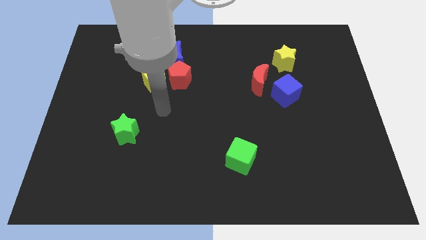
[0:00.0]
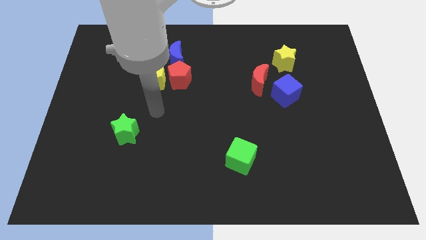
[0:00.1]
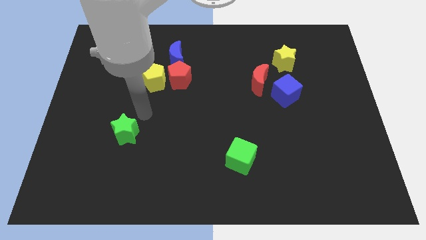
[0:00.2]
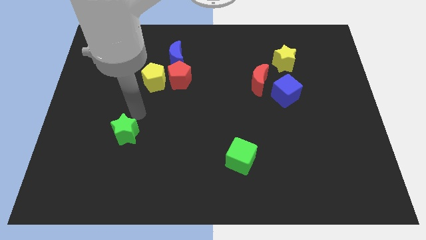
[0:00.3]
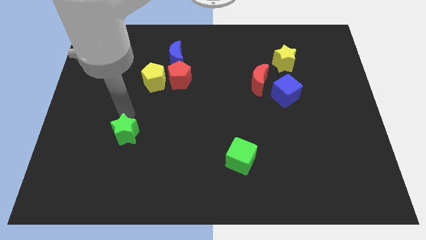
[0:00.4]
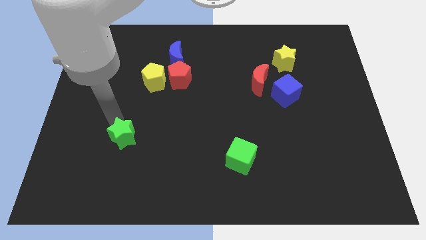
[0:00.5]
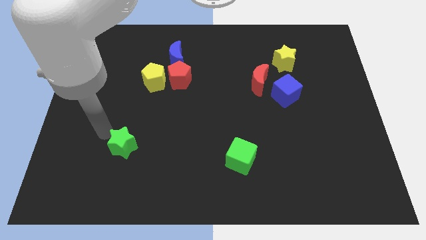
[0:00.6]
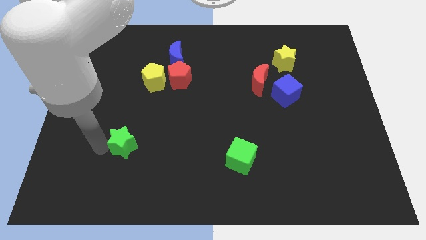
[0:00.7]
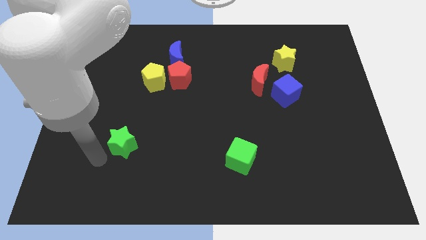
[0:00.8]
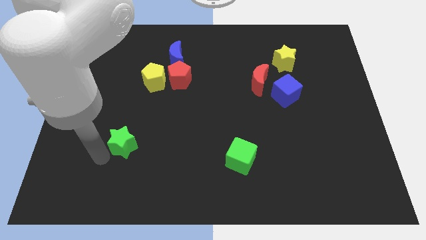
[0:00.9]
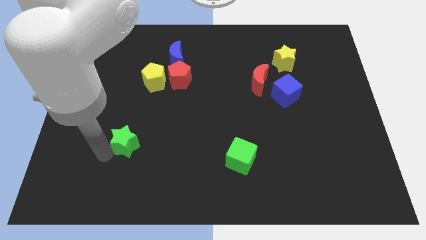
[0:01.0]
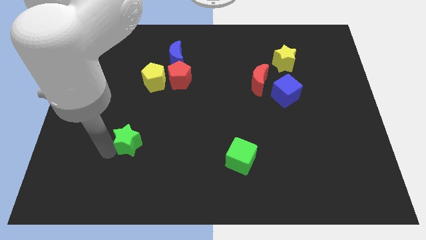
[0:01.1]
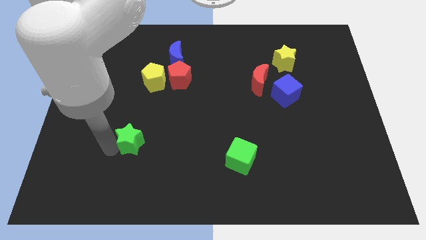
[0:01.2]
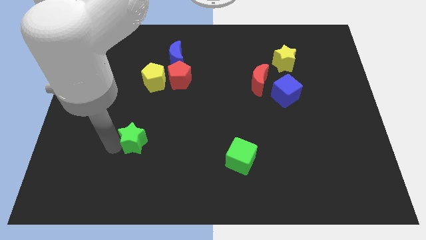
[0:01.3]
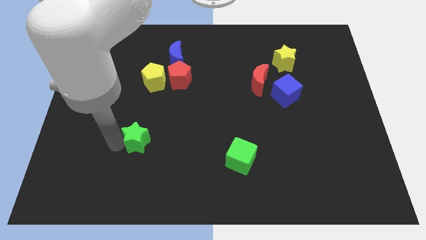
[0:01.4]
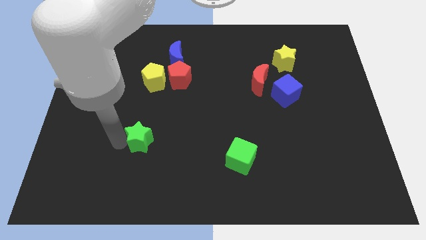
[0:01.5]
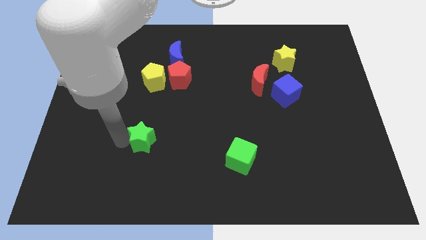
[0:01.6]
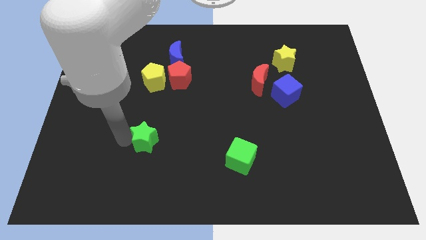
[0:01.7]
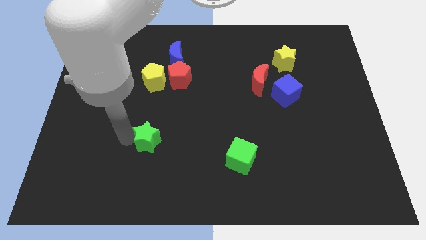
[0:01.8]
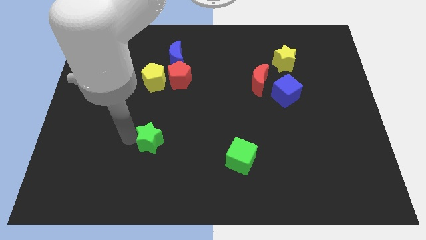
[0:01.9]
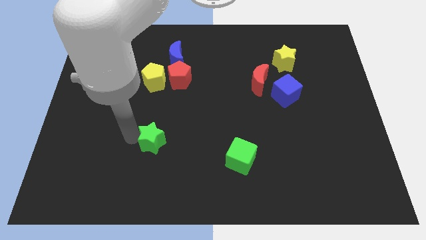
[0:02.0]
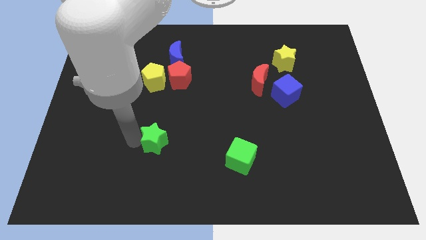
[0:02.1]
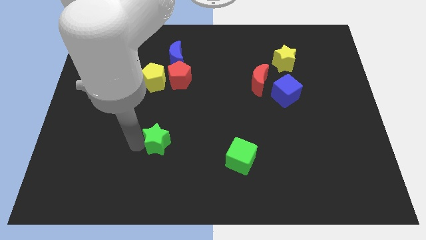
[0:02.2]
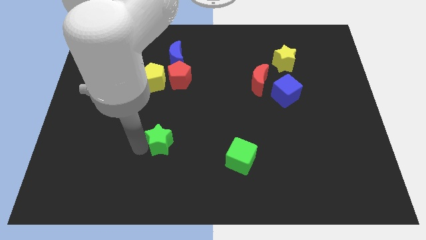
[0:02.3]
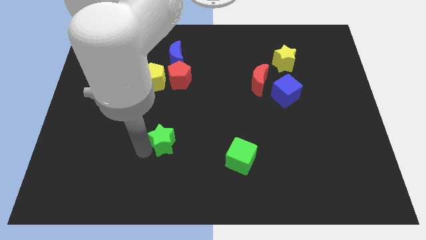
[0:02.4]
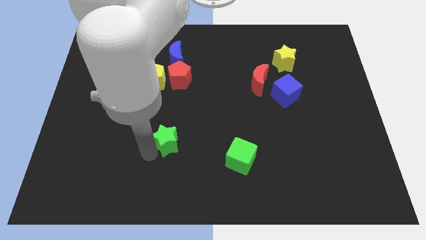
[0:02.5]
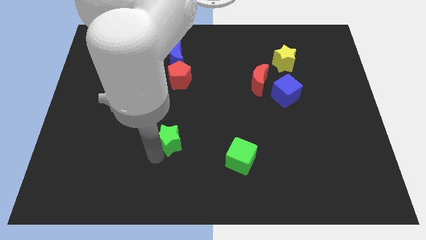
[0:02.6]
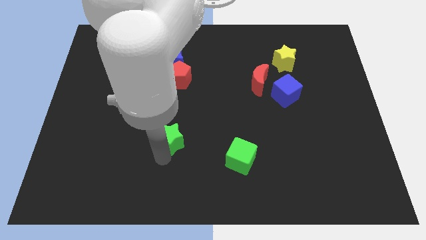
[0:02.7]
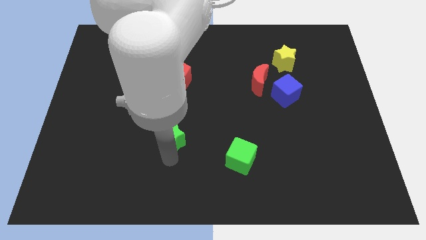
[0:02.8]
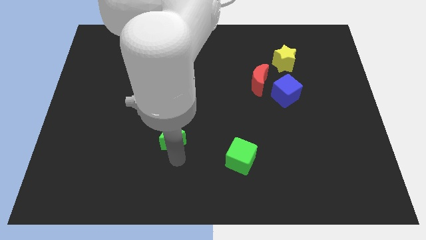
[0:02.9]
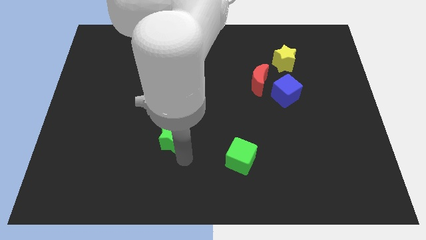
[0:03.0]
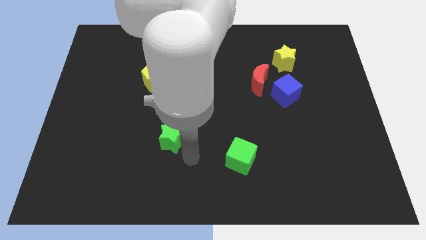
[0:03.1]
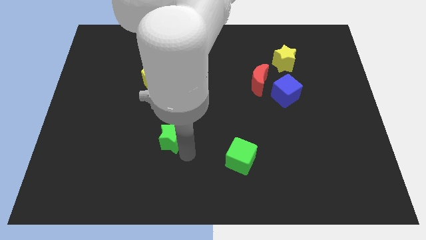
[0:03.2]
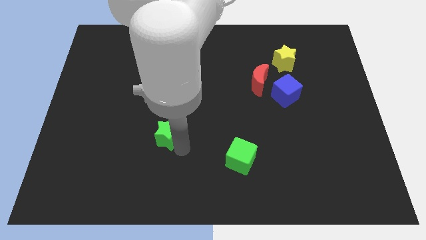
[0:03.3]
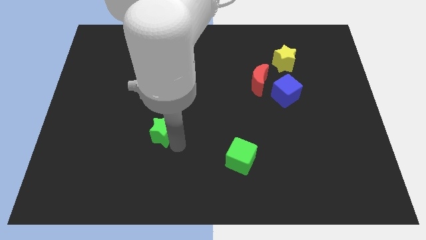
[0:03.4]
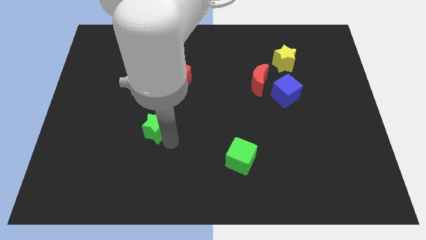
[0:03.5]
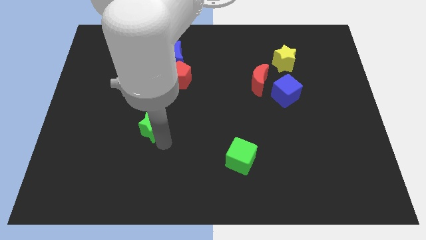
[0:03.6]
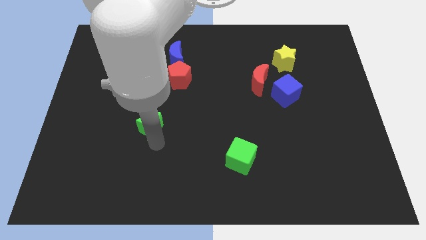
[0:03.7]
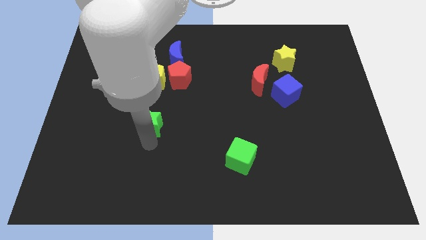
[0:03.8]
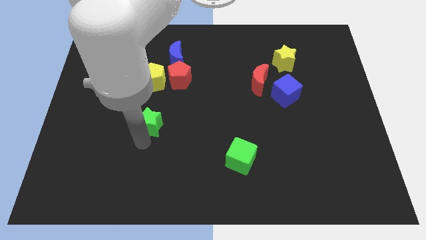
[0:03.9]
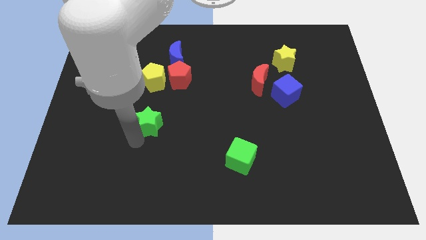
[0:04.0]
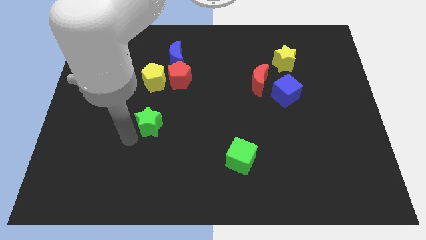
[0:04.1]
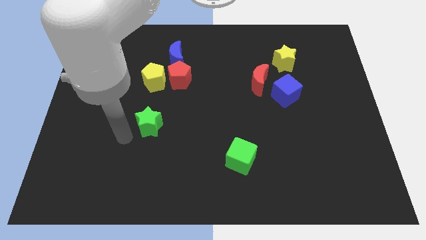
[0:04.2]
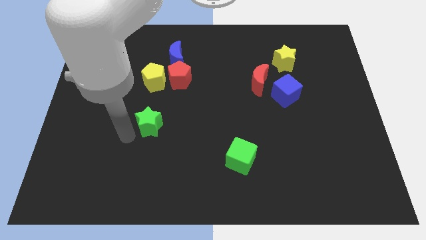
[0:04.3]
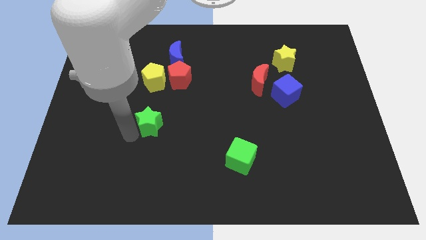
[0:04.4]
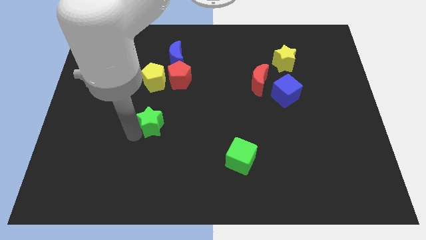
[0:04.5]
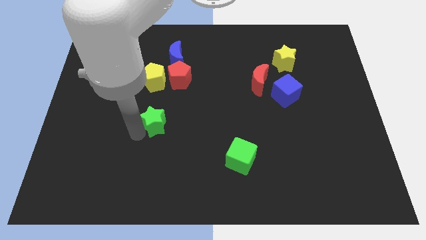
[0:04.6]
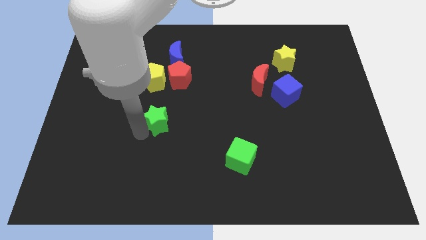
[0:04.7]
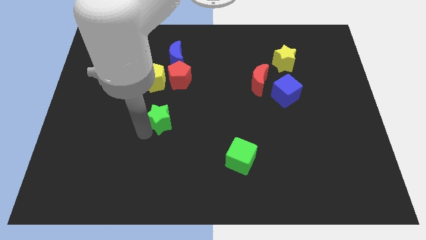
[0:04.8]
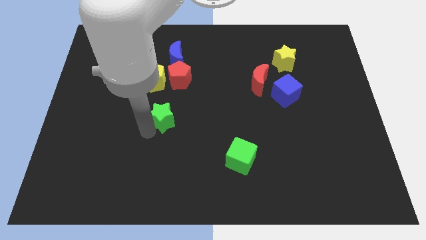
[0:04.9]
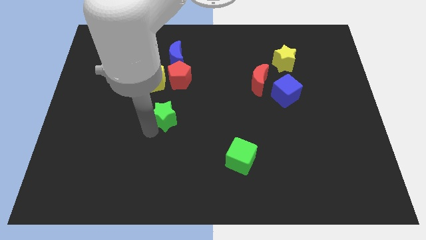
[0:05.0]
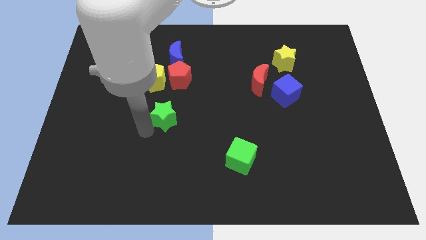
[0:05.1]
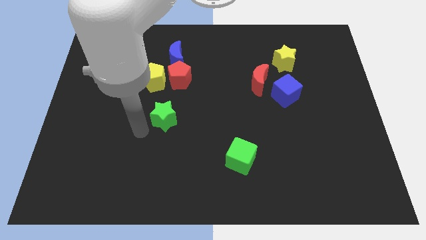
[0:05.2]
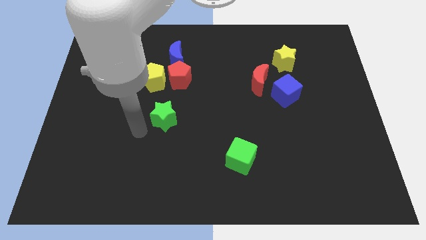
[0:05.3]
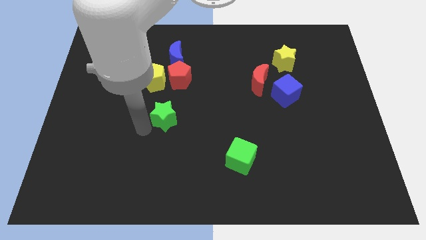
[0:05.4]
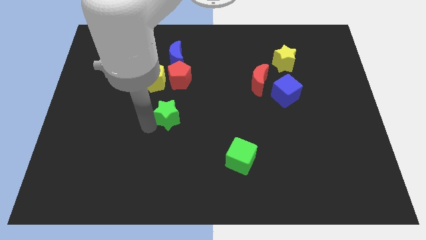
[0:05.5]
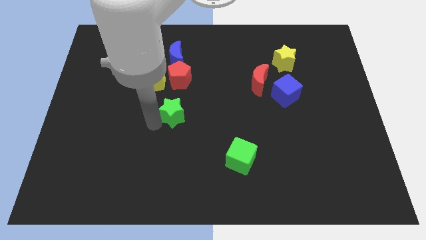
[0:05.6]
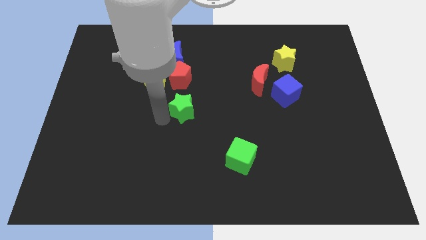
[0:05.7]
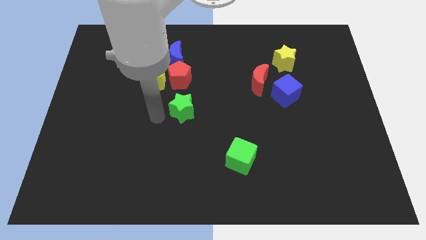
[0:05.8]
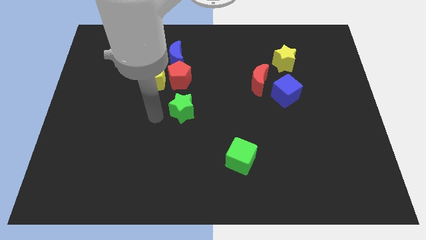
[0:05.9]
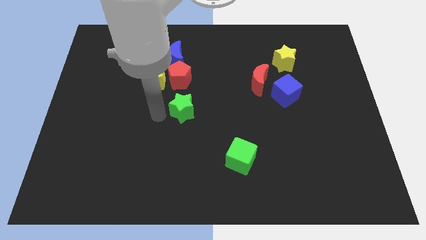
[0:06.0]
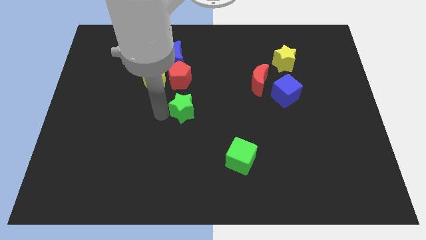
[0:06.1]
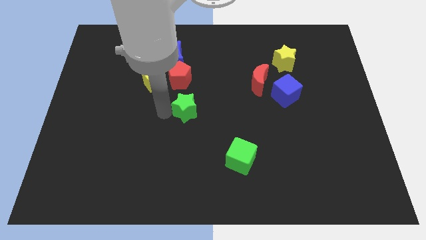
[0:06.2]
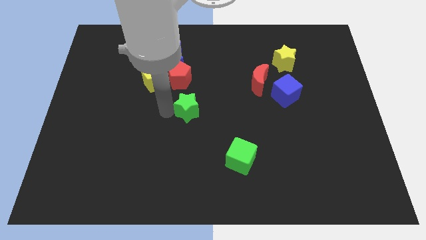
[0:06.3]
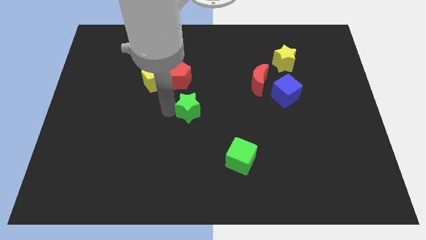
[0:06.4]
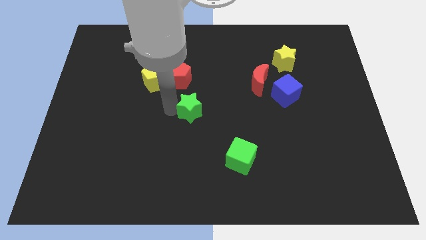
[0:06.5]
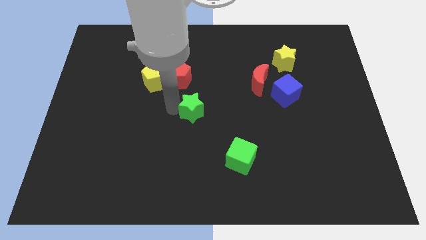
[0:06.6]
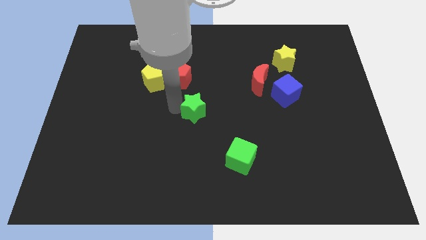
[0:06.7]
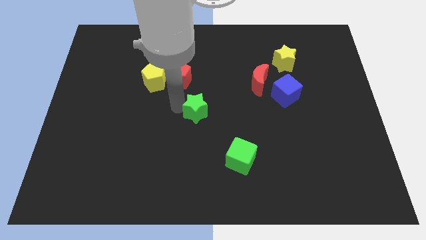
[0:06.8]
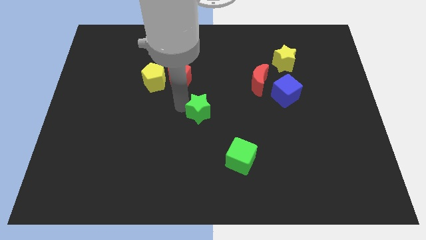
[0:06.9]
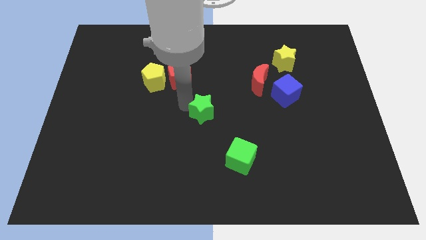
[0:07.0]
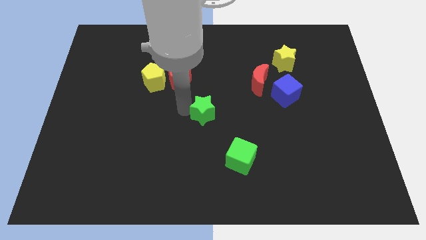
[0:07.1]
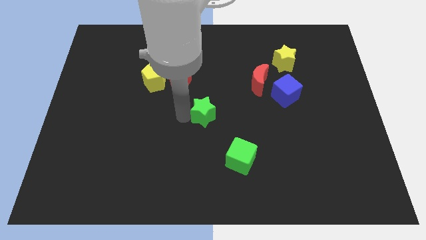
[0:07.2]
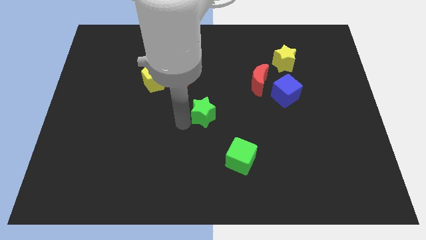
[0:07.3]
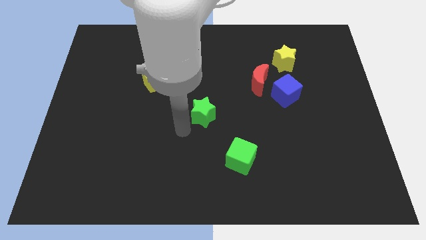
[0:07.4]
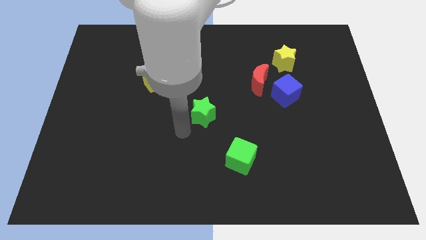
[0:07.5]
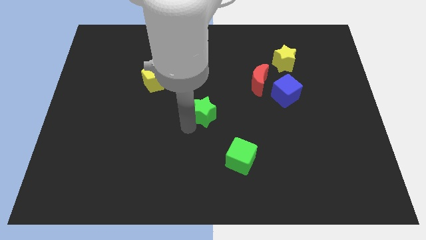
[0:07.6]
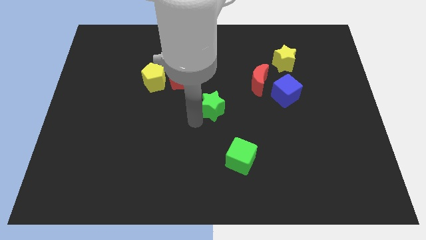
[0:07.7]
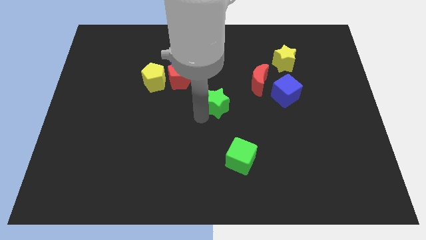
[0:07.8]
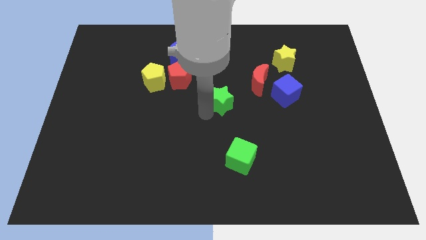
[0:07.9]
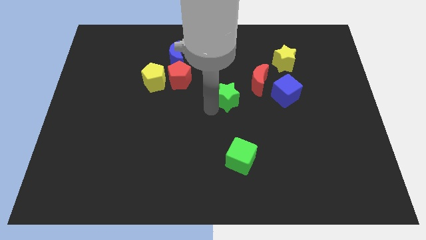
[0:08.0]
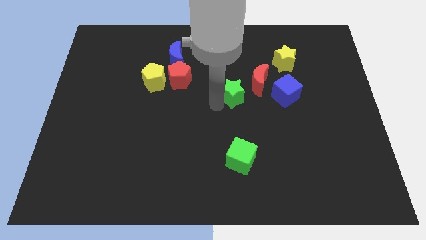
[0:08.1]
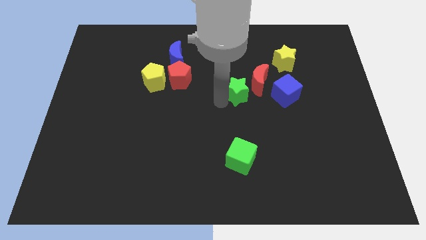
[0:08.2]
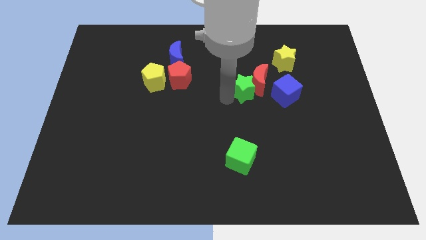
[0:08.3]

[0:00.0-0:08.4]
push the green star towards the red moon
